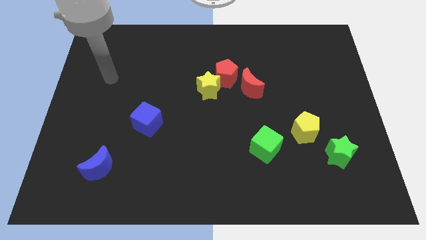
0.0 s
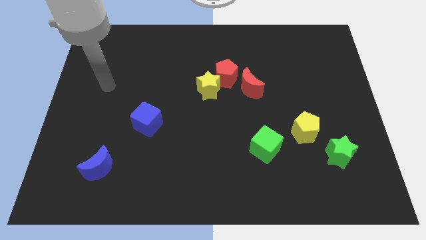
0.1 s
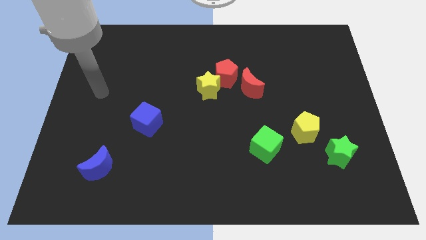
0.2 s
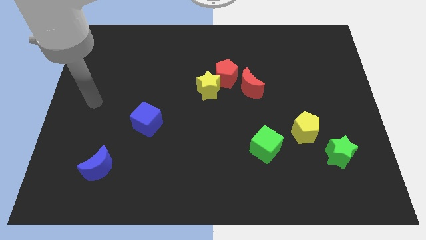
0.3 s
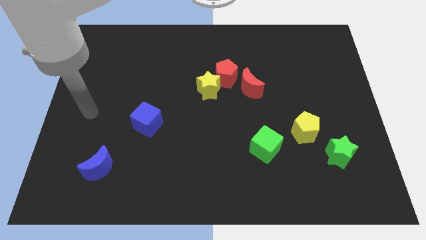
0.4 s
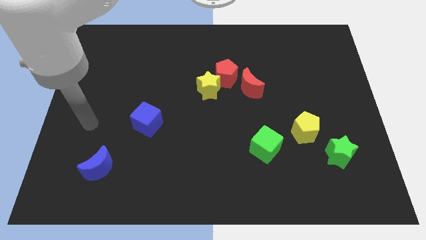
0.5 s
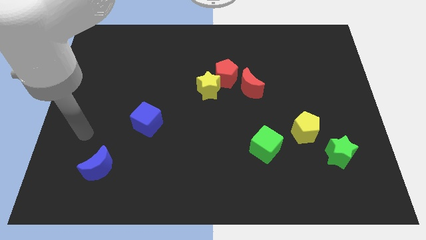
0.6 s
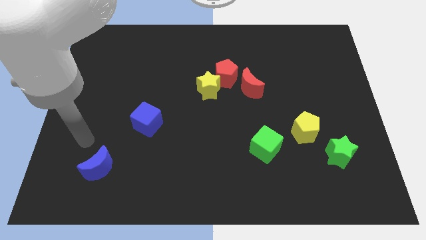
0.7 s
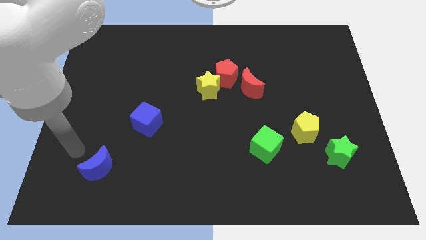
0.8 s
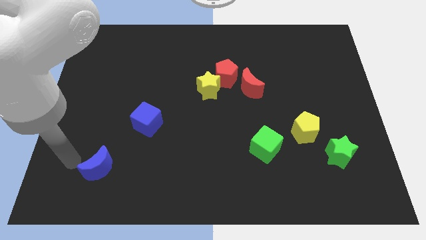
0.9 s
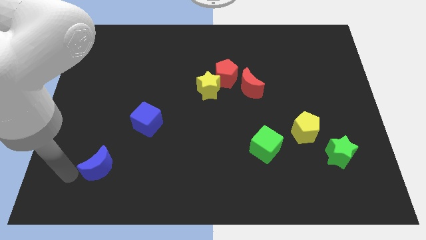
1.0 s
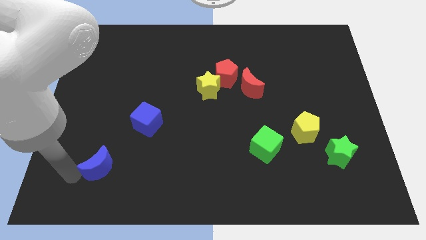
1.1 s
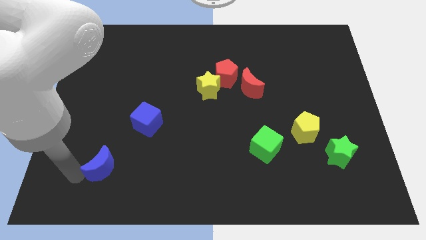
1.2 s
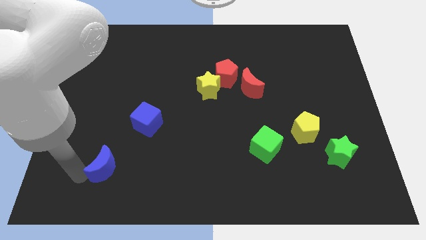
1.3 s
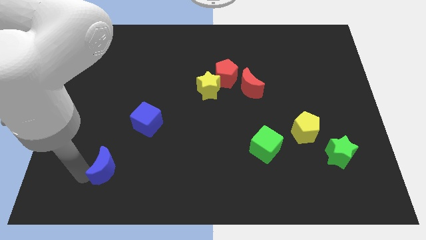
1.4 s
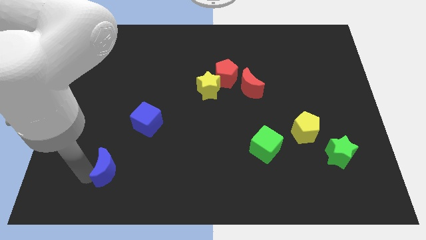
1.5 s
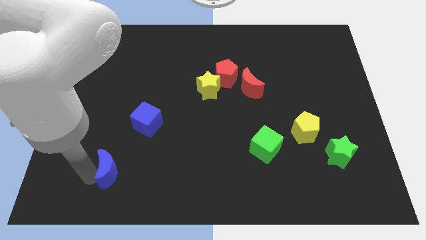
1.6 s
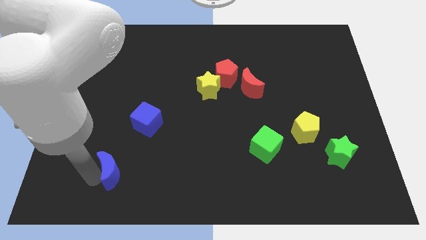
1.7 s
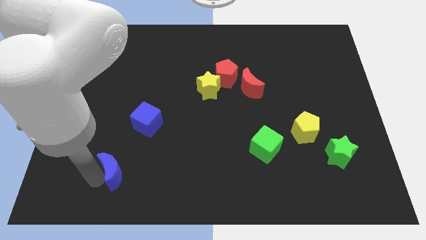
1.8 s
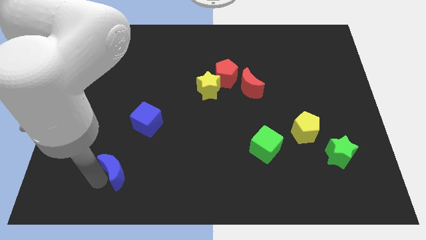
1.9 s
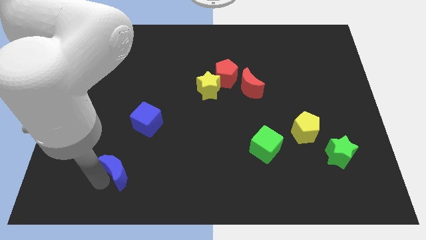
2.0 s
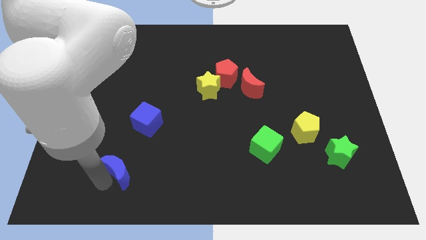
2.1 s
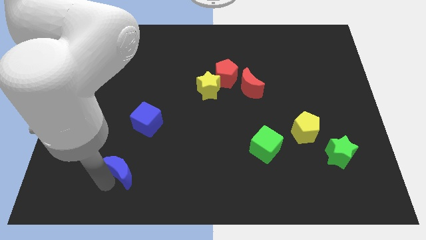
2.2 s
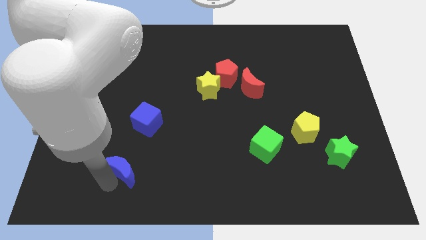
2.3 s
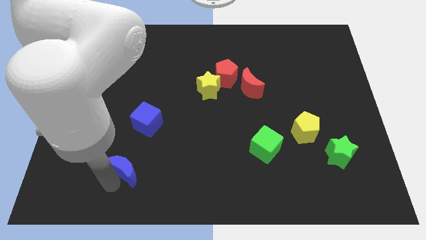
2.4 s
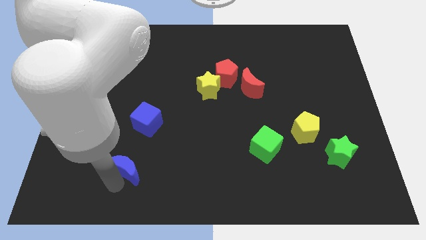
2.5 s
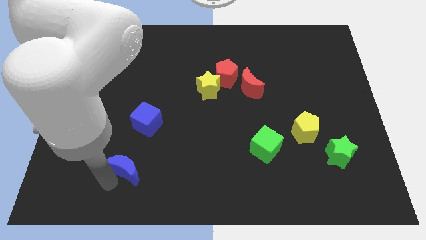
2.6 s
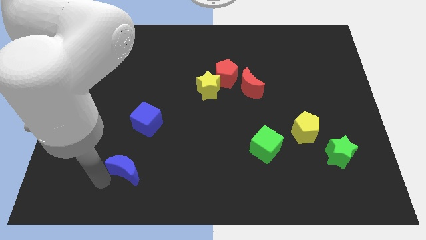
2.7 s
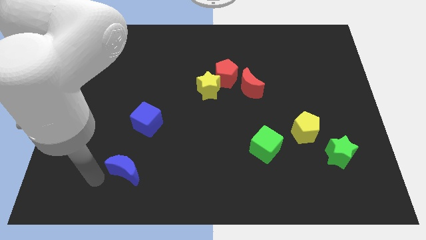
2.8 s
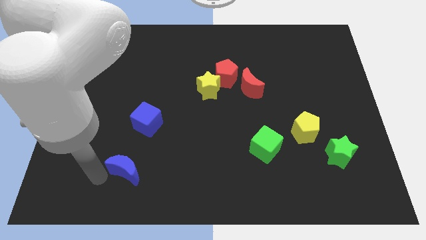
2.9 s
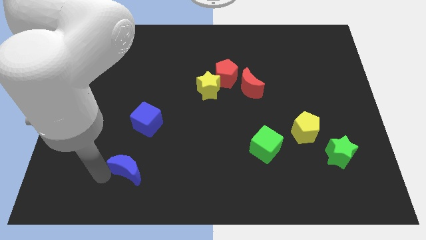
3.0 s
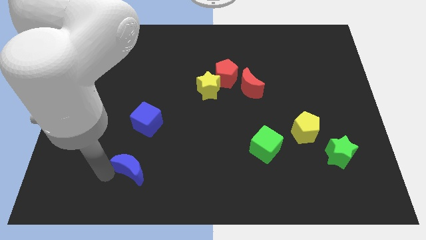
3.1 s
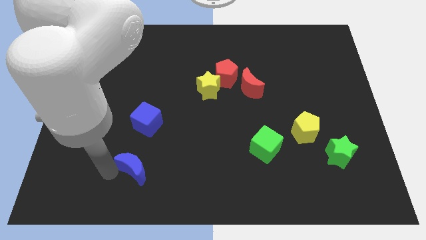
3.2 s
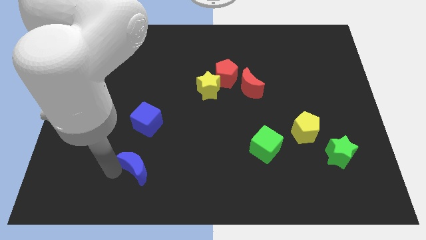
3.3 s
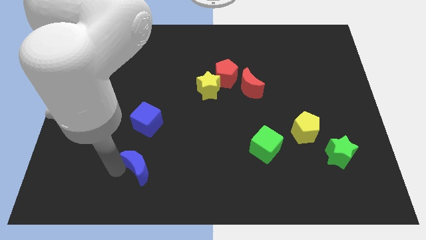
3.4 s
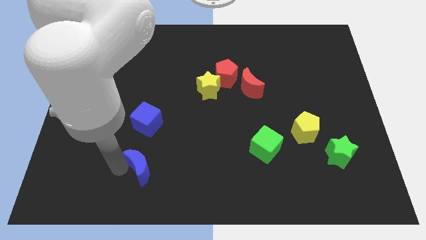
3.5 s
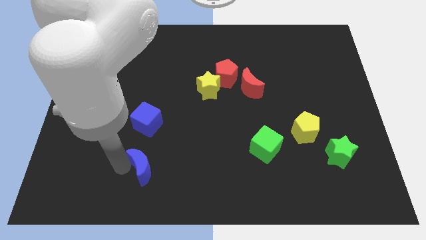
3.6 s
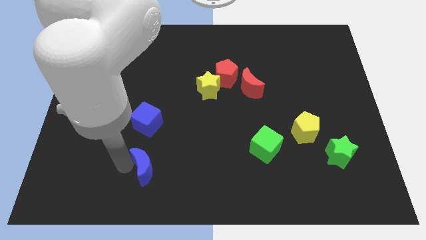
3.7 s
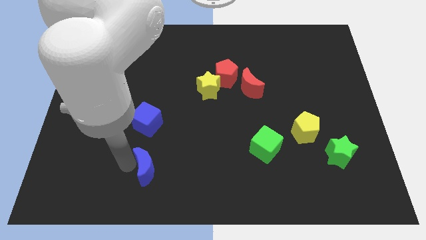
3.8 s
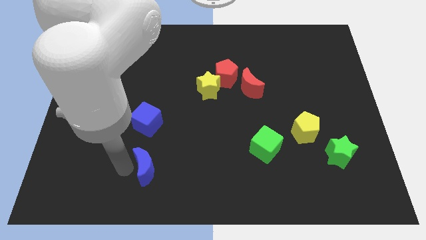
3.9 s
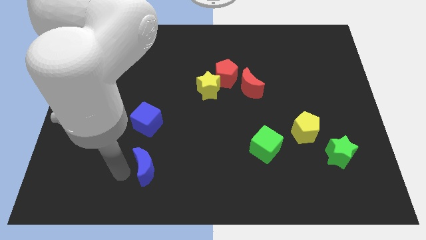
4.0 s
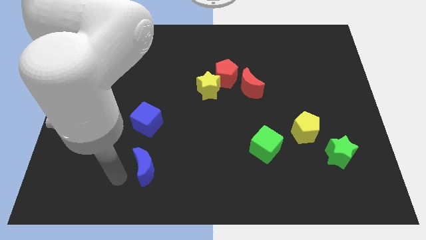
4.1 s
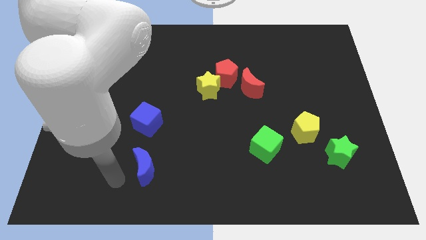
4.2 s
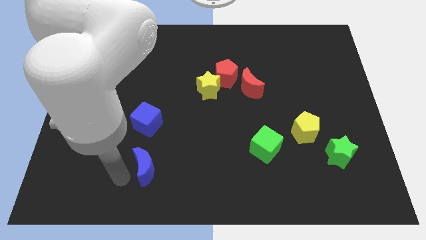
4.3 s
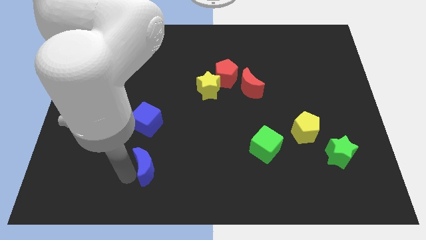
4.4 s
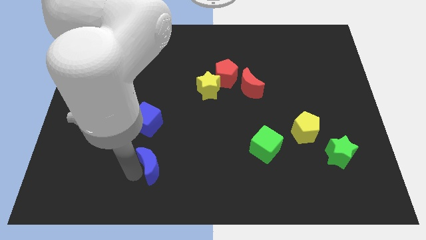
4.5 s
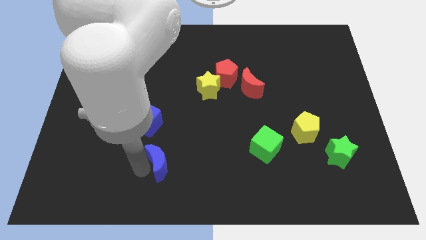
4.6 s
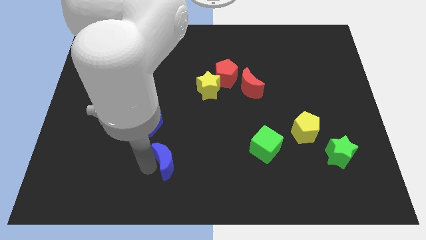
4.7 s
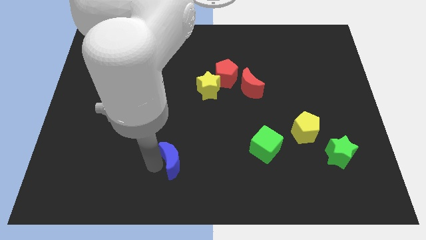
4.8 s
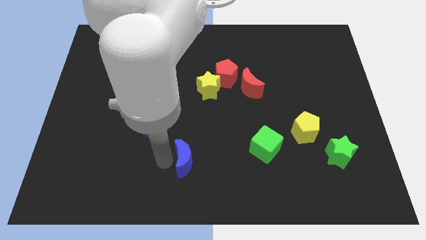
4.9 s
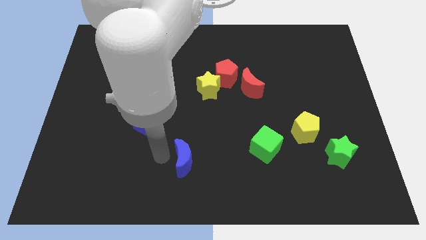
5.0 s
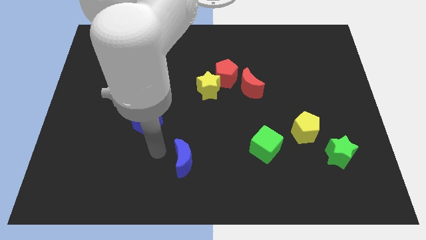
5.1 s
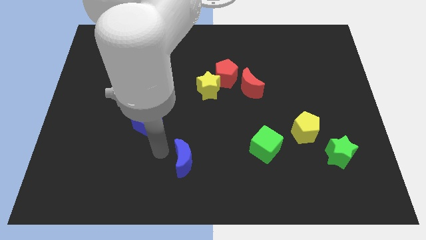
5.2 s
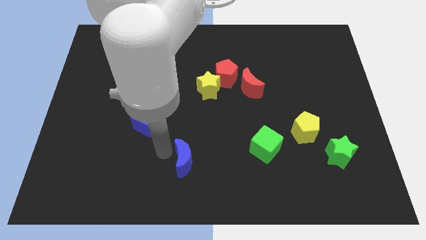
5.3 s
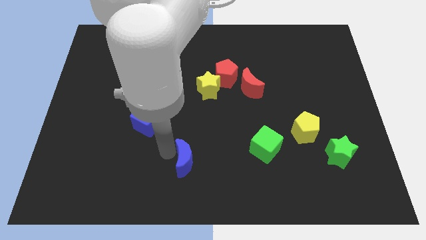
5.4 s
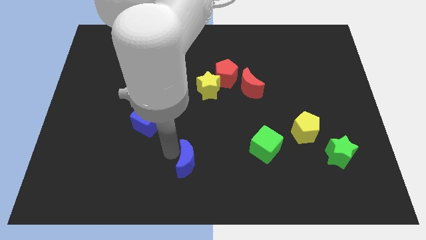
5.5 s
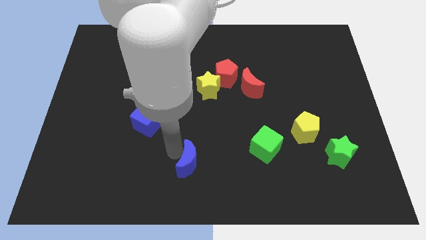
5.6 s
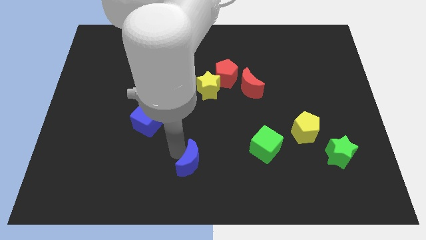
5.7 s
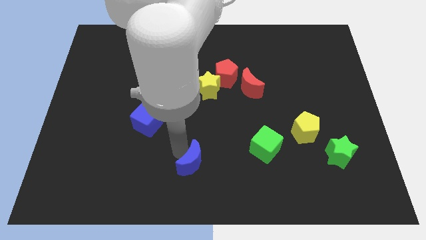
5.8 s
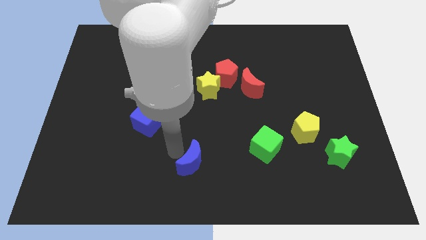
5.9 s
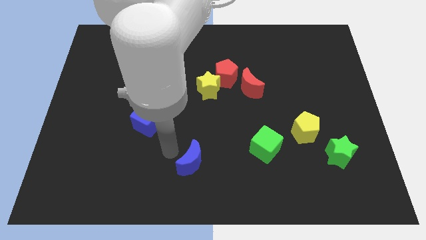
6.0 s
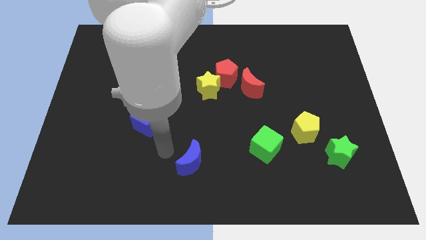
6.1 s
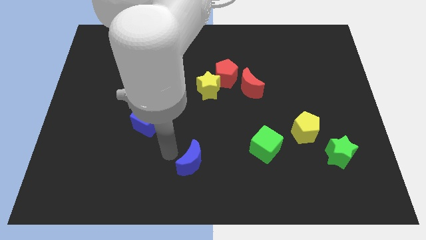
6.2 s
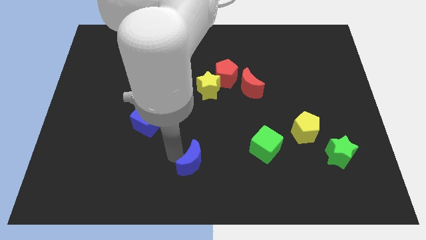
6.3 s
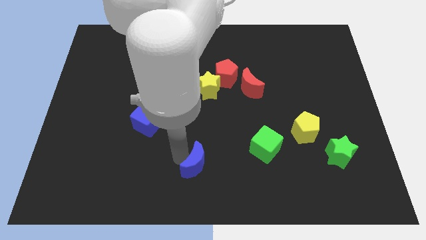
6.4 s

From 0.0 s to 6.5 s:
slide the blue moon right

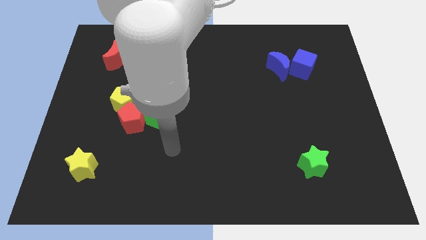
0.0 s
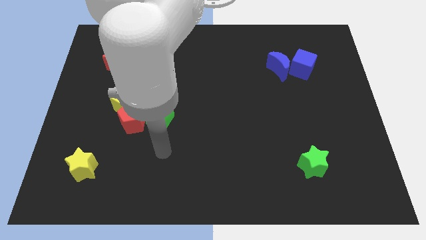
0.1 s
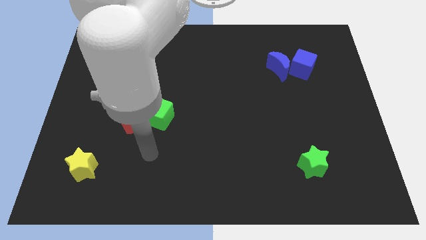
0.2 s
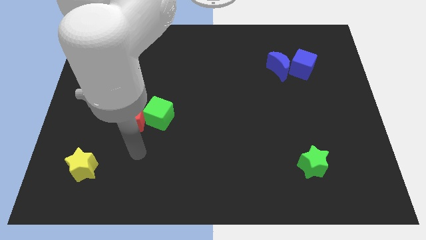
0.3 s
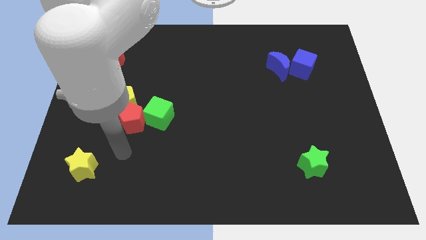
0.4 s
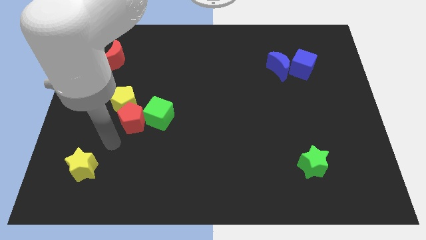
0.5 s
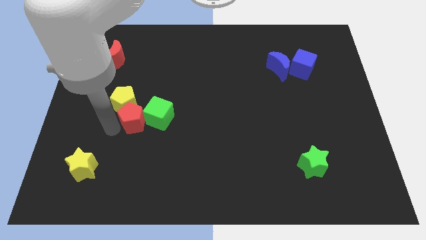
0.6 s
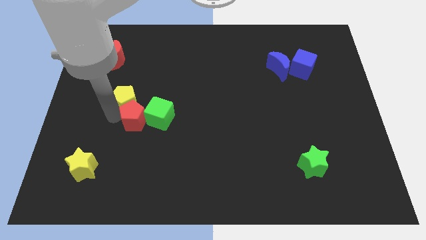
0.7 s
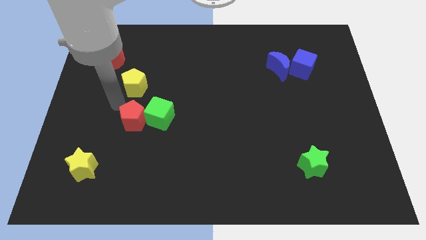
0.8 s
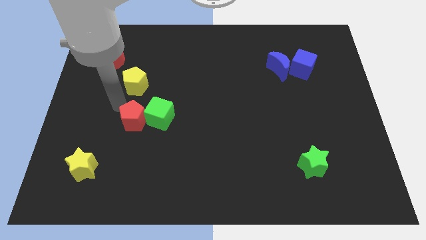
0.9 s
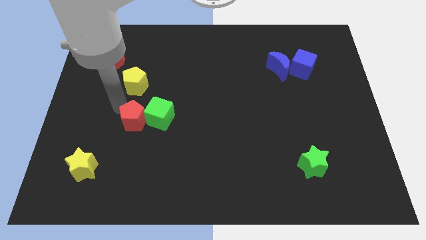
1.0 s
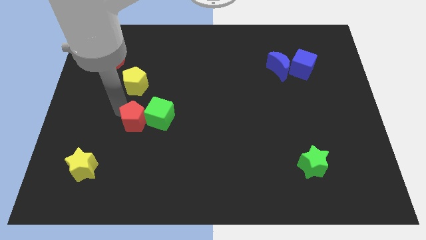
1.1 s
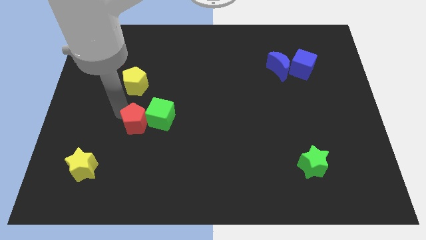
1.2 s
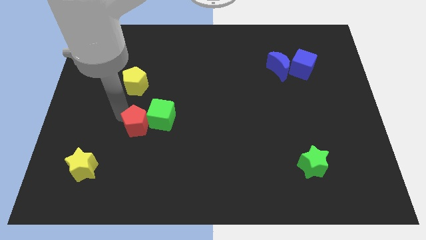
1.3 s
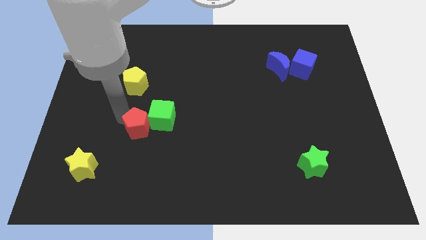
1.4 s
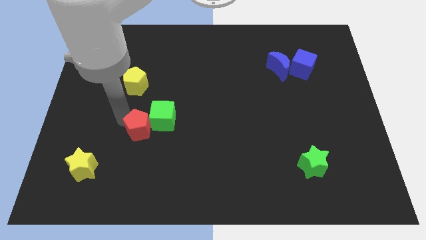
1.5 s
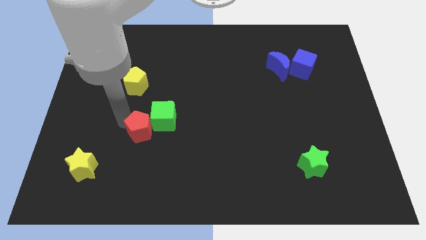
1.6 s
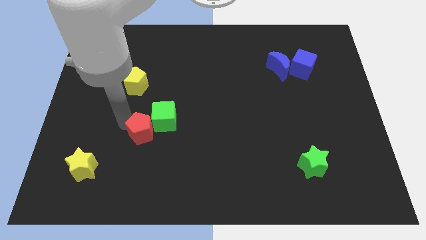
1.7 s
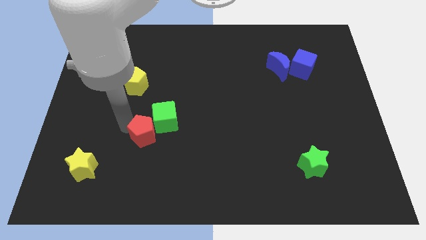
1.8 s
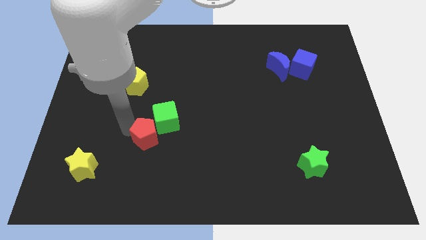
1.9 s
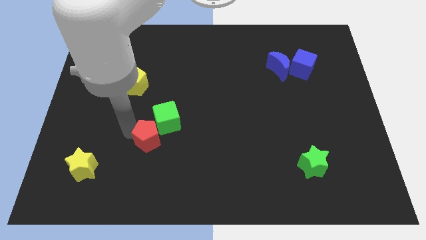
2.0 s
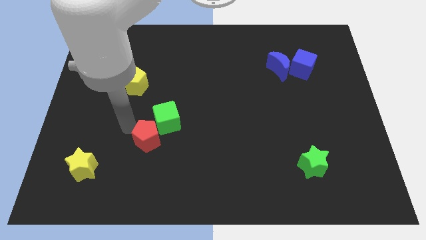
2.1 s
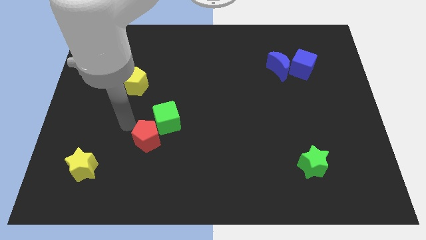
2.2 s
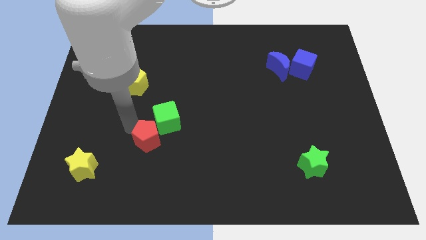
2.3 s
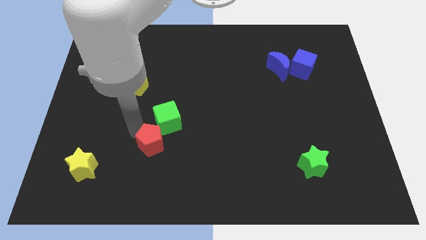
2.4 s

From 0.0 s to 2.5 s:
move the red pentagon a little down and right
